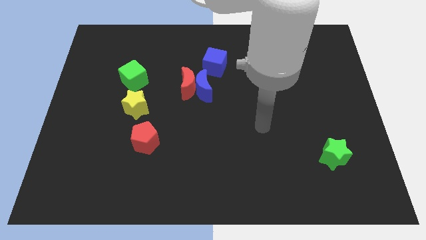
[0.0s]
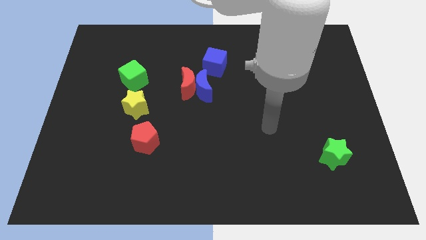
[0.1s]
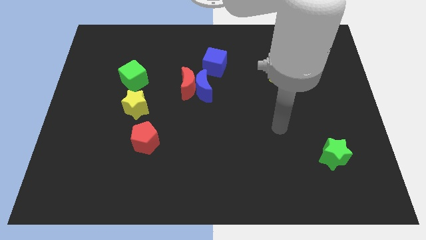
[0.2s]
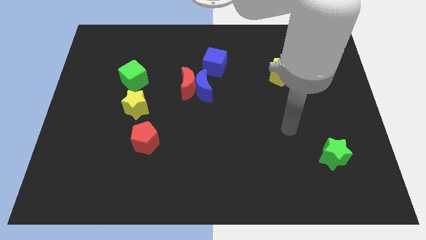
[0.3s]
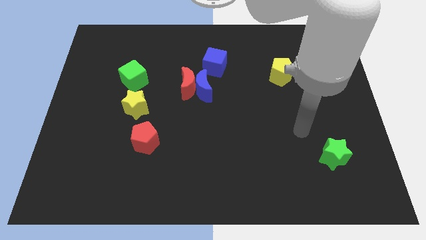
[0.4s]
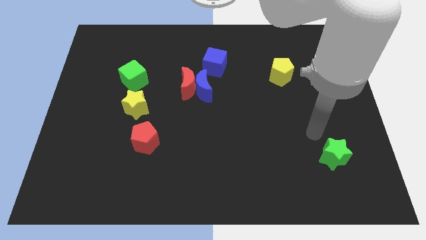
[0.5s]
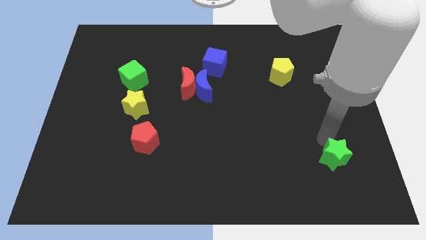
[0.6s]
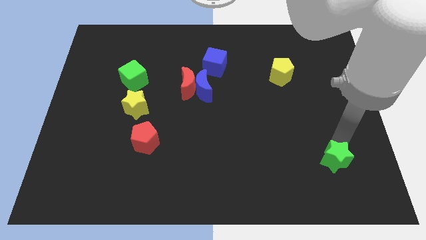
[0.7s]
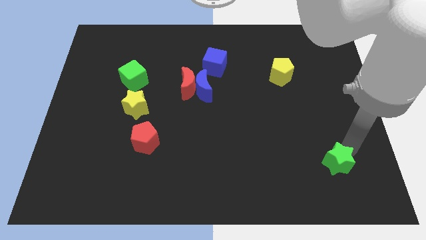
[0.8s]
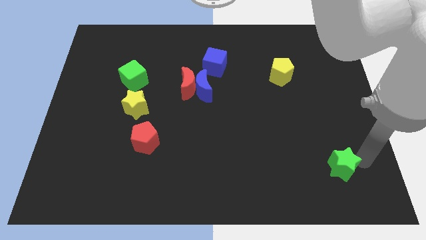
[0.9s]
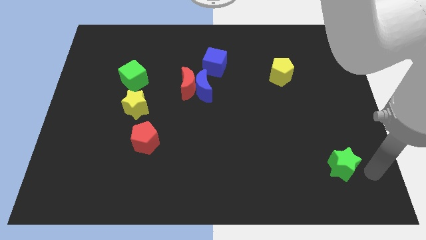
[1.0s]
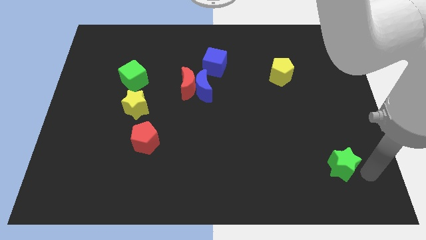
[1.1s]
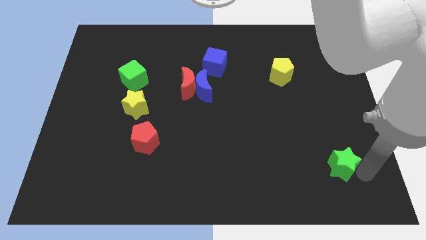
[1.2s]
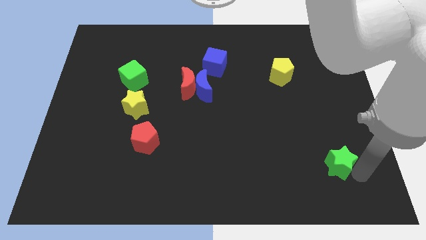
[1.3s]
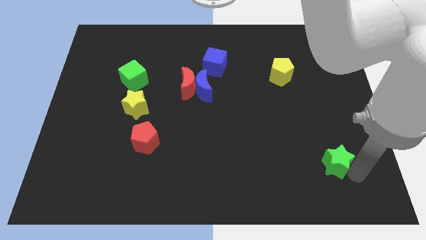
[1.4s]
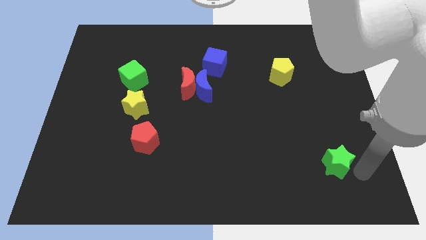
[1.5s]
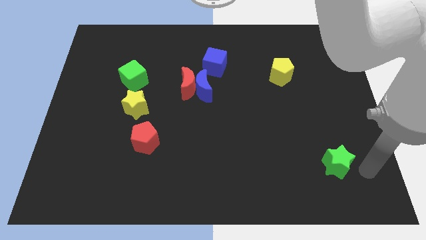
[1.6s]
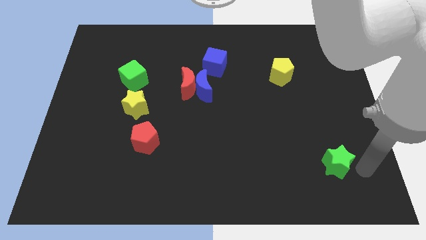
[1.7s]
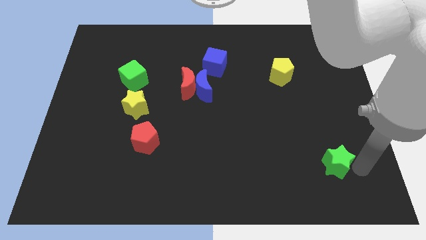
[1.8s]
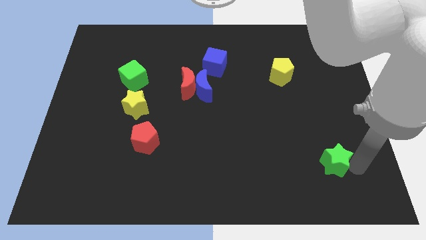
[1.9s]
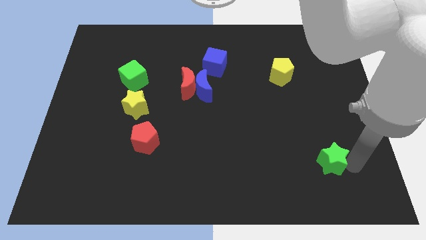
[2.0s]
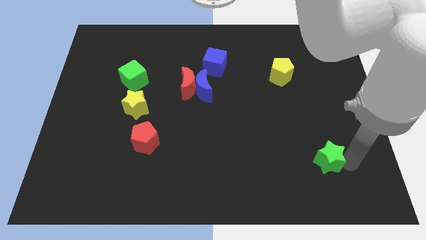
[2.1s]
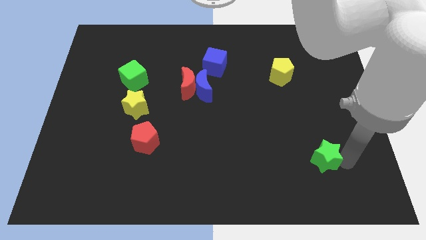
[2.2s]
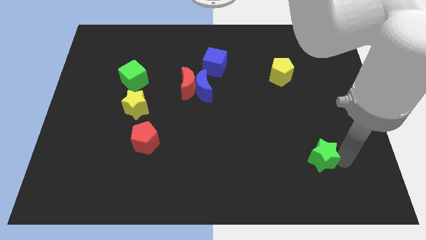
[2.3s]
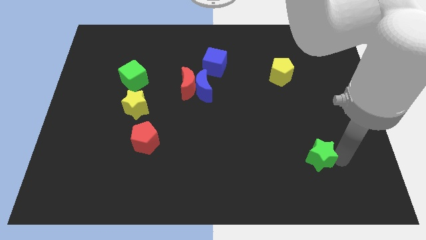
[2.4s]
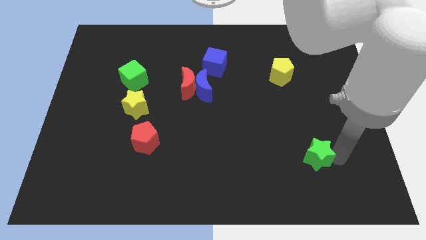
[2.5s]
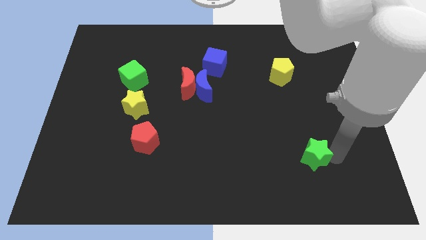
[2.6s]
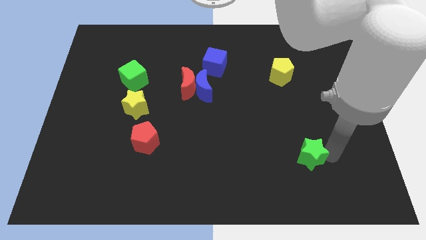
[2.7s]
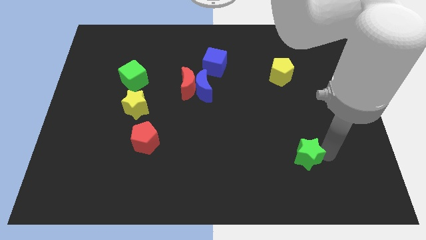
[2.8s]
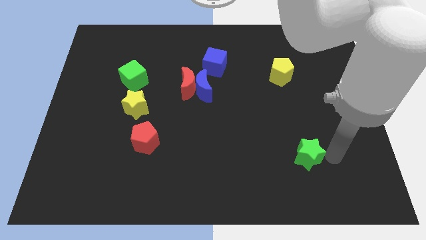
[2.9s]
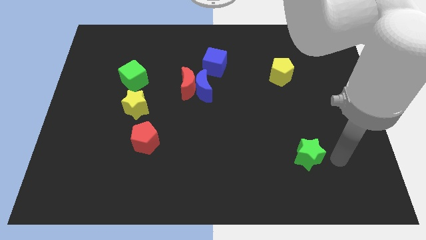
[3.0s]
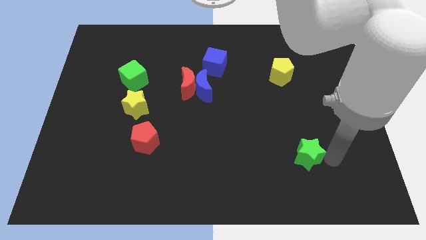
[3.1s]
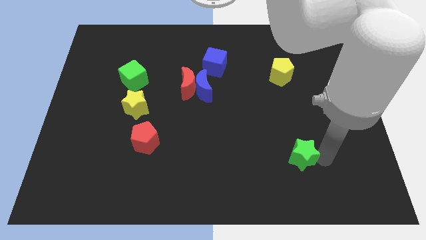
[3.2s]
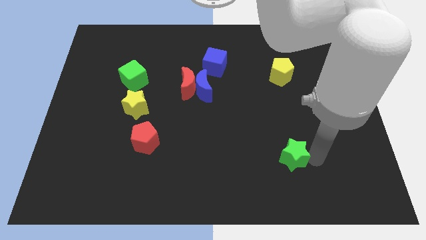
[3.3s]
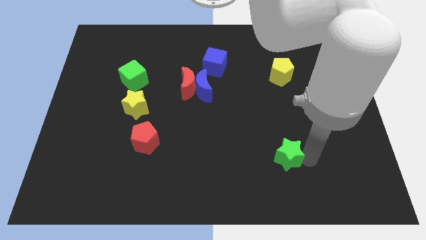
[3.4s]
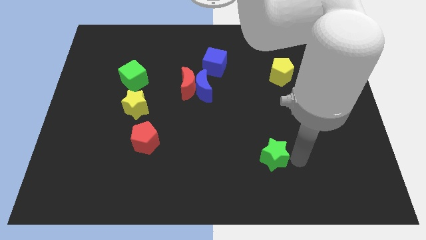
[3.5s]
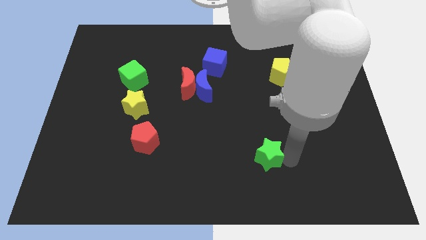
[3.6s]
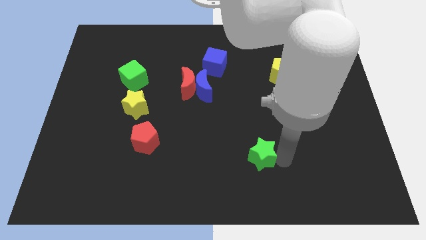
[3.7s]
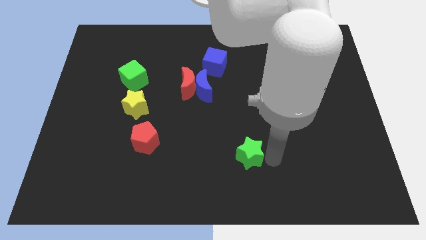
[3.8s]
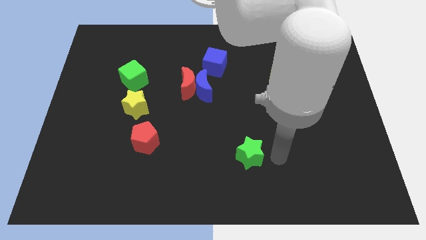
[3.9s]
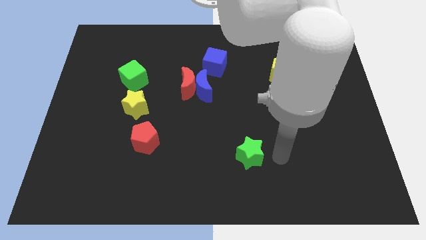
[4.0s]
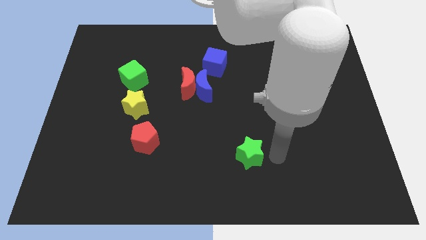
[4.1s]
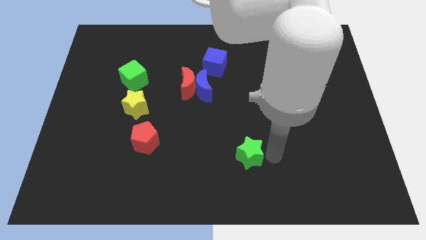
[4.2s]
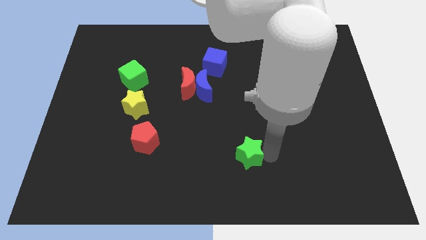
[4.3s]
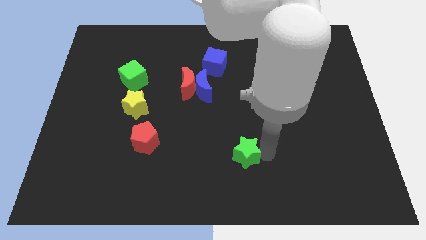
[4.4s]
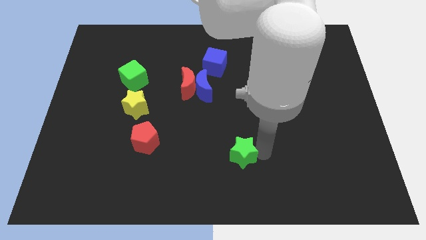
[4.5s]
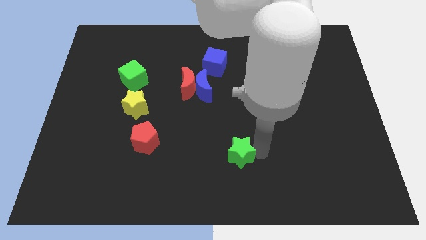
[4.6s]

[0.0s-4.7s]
push the green star left

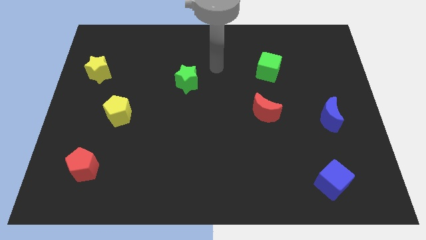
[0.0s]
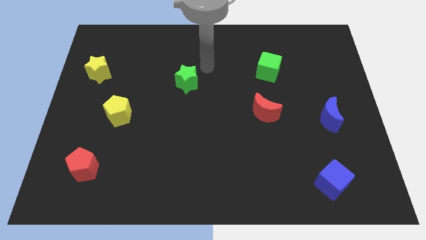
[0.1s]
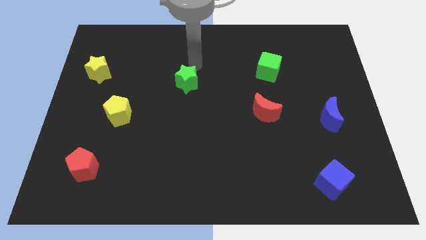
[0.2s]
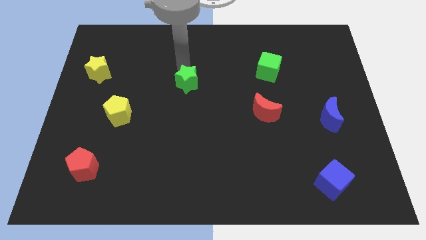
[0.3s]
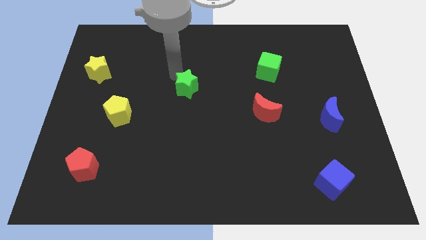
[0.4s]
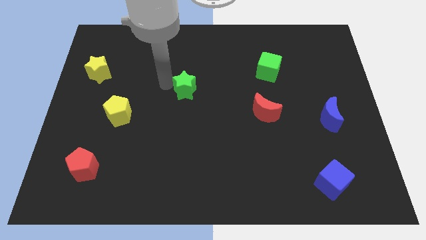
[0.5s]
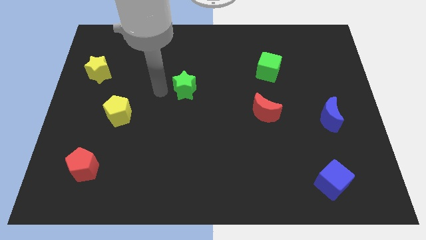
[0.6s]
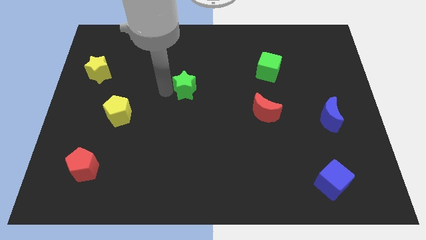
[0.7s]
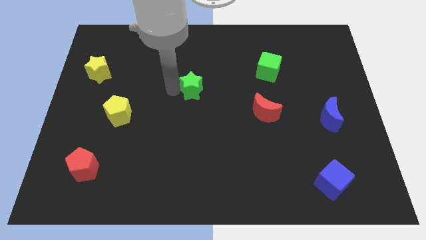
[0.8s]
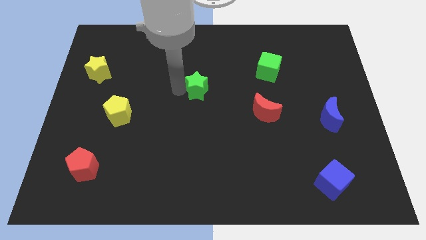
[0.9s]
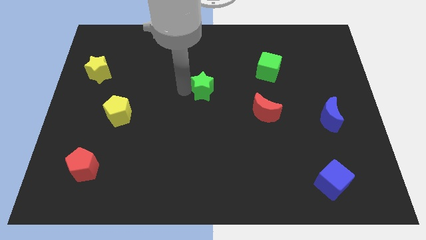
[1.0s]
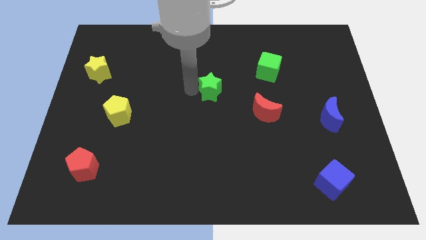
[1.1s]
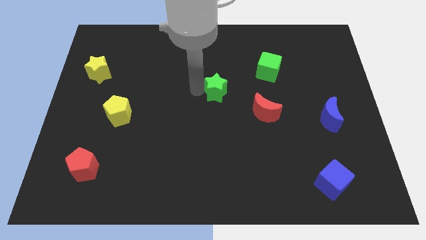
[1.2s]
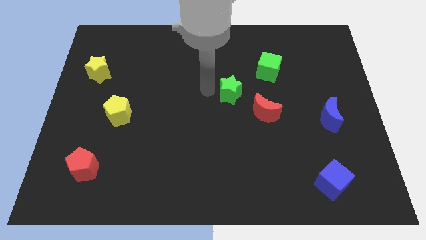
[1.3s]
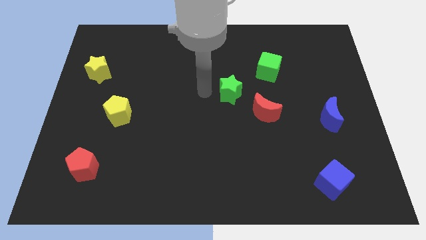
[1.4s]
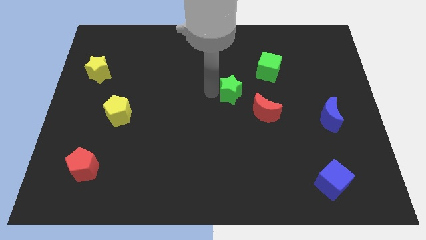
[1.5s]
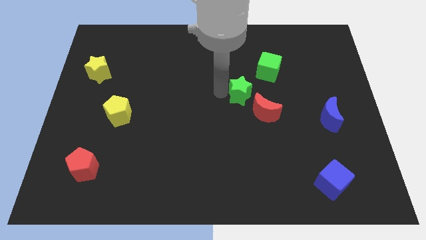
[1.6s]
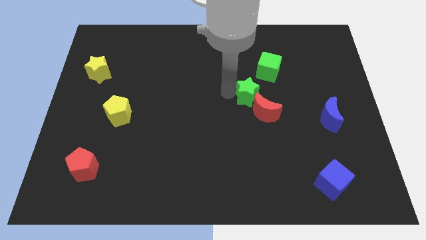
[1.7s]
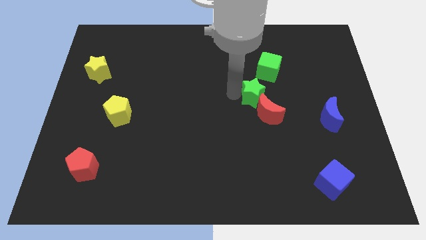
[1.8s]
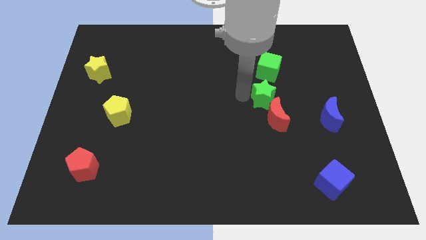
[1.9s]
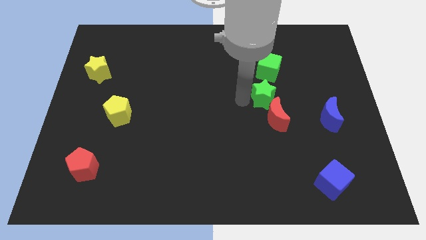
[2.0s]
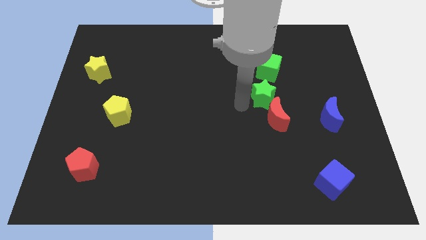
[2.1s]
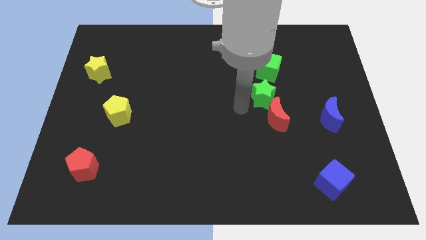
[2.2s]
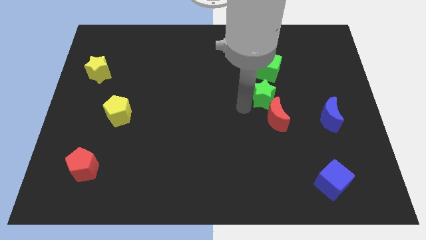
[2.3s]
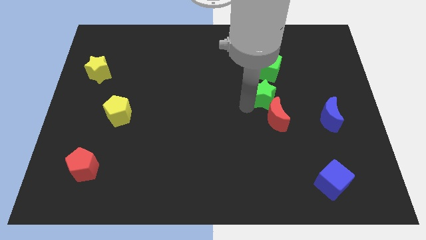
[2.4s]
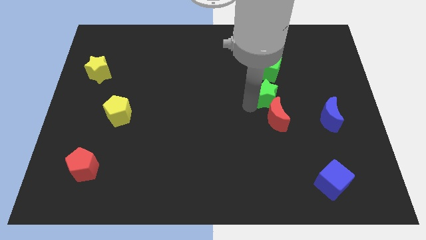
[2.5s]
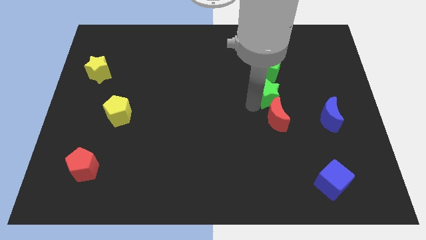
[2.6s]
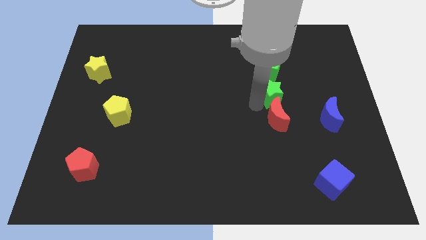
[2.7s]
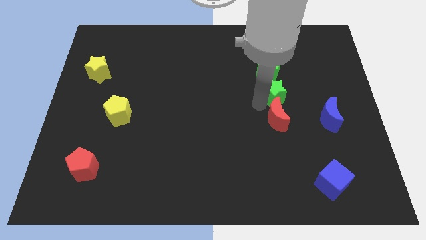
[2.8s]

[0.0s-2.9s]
push the green star to the right

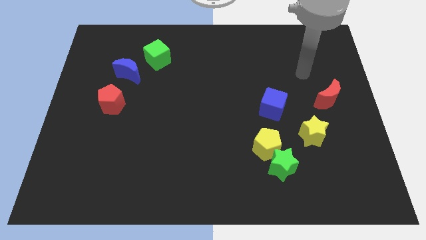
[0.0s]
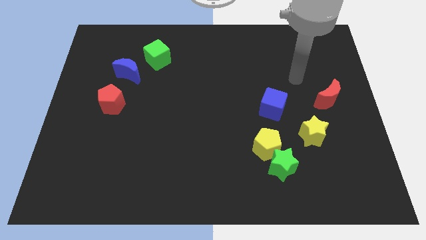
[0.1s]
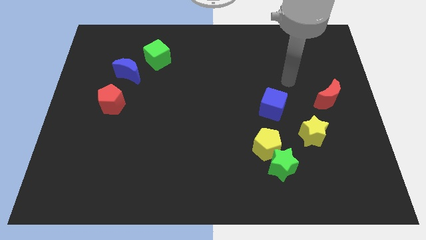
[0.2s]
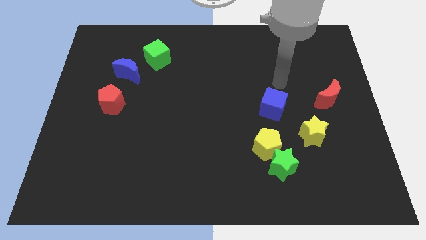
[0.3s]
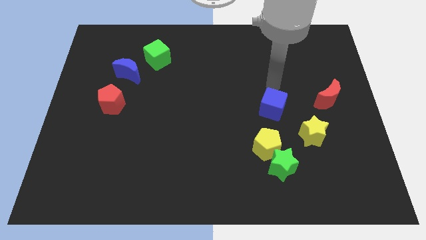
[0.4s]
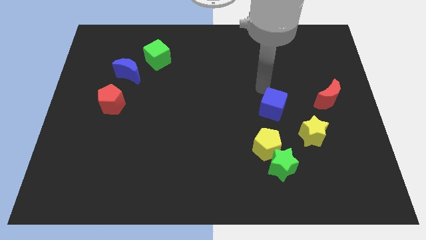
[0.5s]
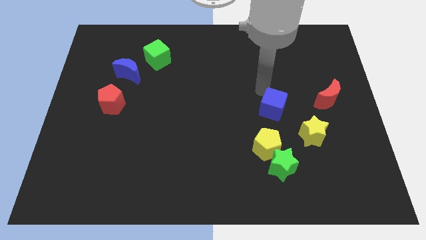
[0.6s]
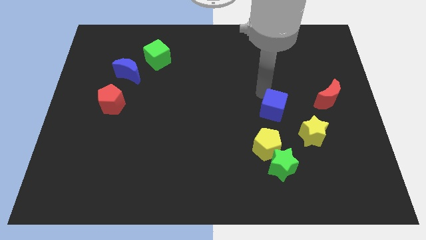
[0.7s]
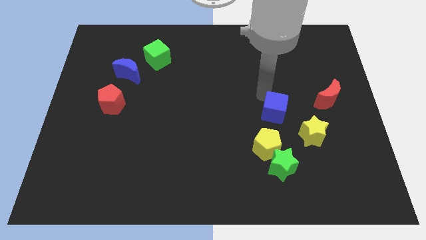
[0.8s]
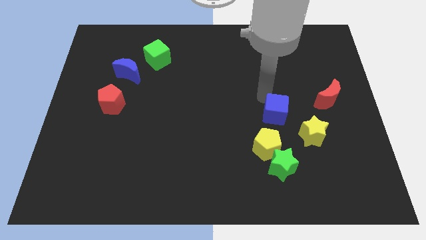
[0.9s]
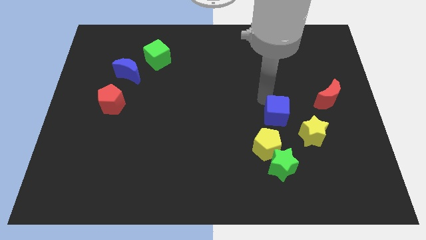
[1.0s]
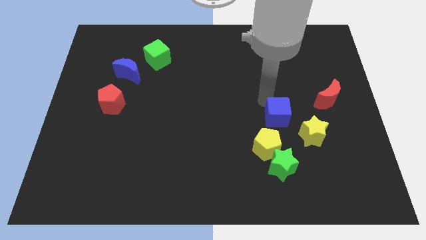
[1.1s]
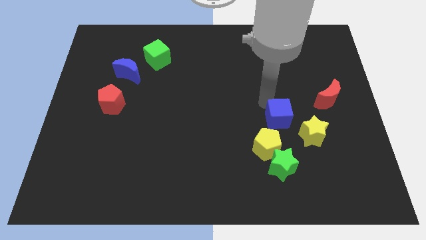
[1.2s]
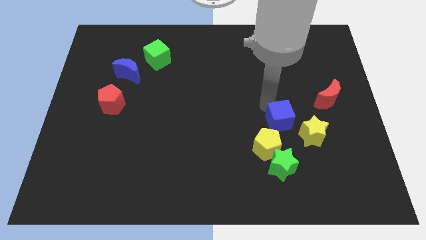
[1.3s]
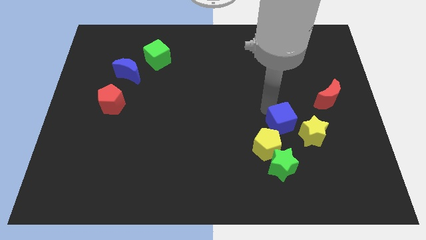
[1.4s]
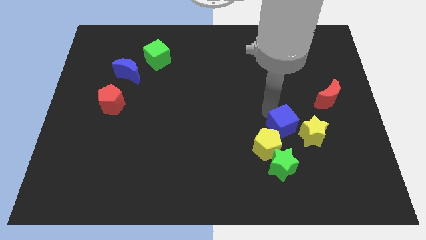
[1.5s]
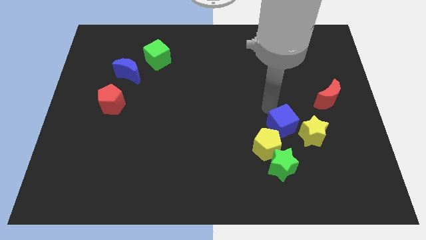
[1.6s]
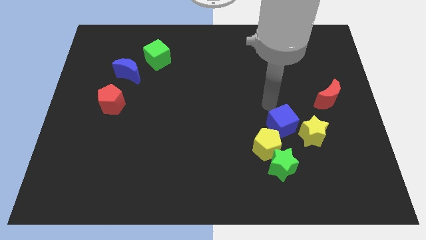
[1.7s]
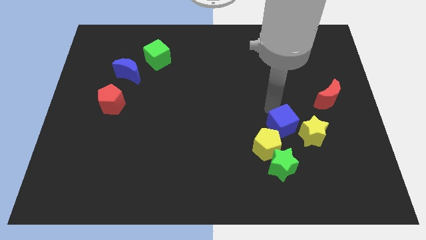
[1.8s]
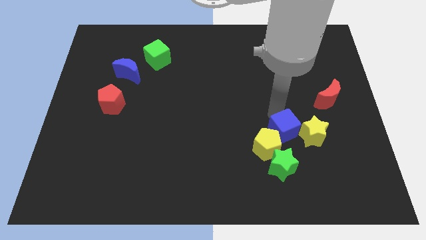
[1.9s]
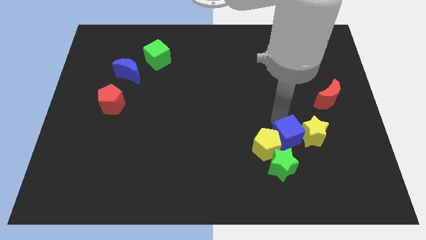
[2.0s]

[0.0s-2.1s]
slide the blue cube slightly downwards and to the right diagonally
